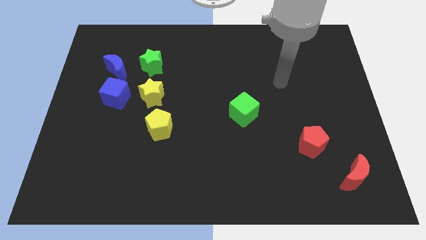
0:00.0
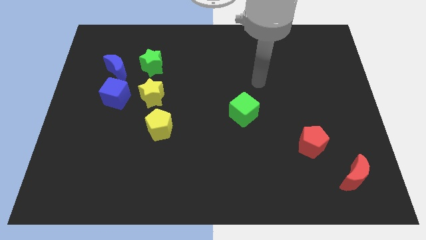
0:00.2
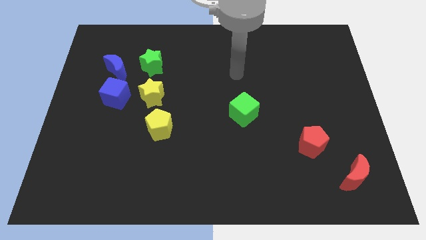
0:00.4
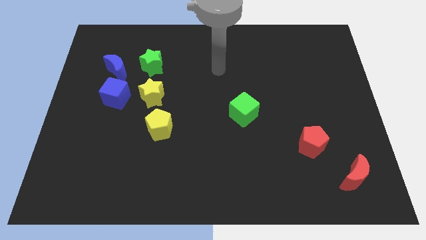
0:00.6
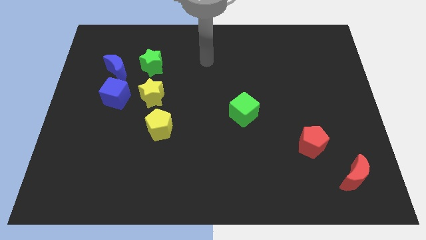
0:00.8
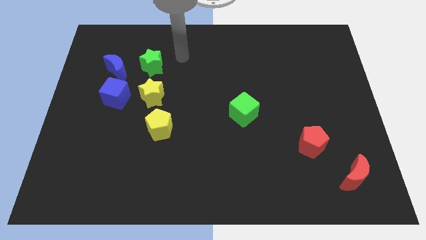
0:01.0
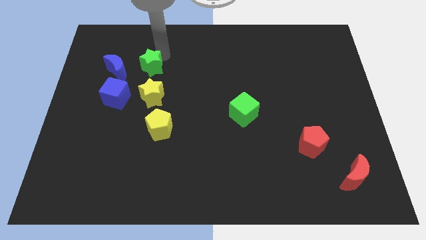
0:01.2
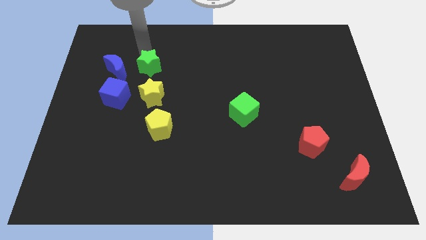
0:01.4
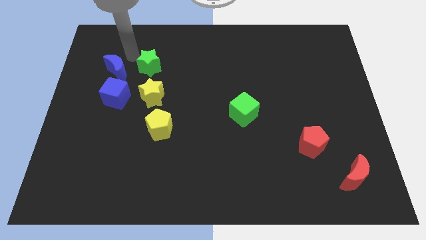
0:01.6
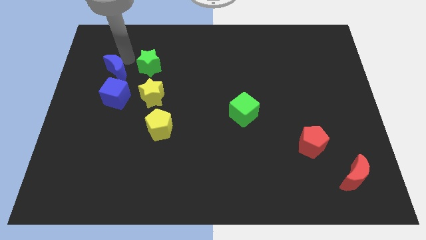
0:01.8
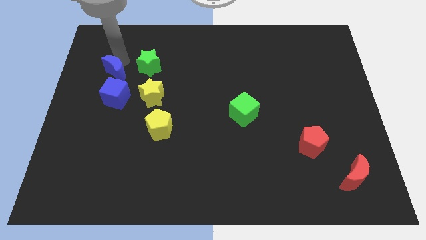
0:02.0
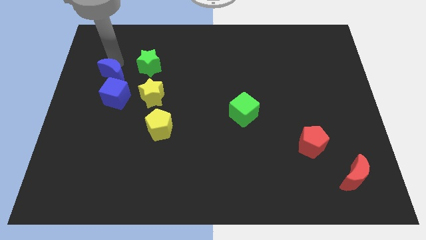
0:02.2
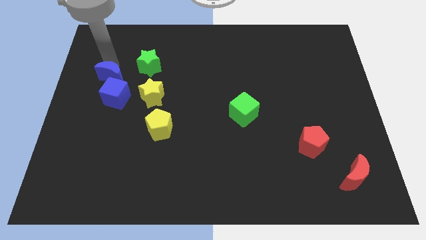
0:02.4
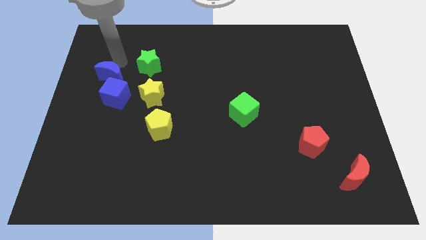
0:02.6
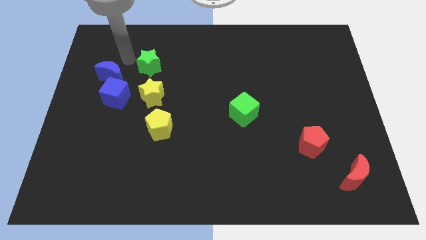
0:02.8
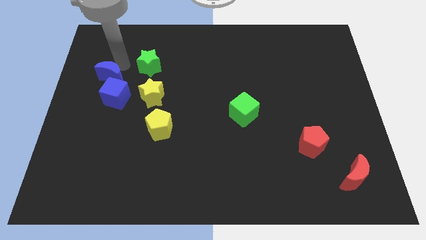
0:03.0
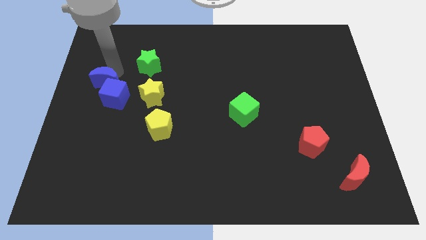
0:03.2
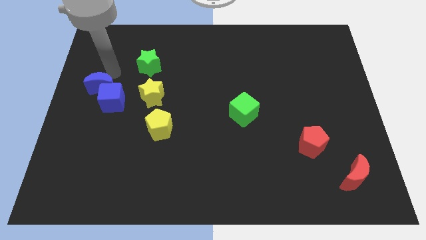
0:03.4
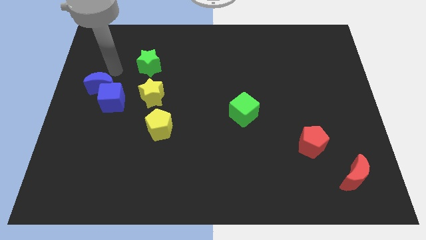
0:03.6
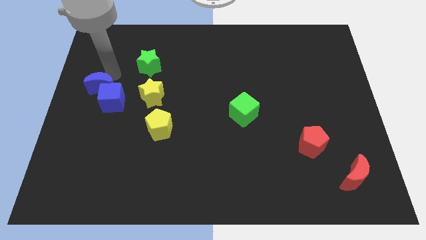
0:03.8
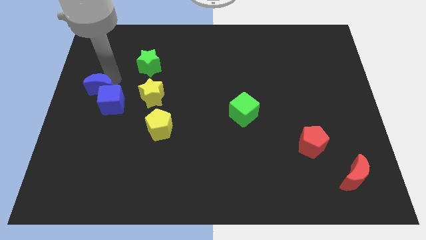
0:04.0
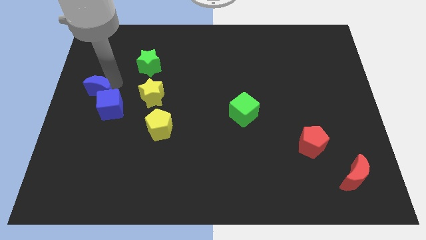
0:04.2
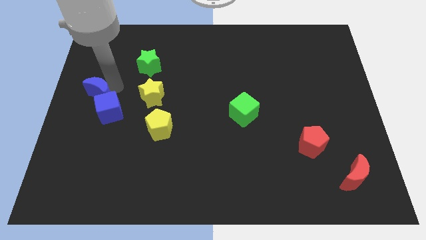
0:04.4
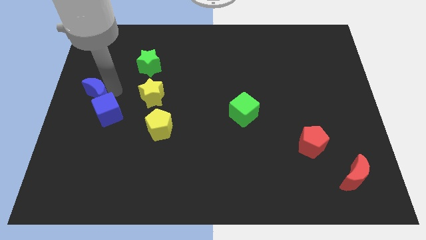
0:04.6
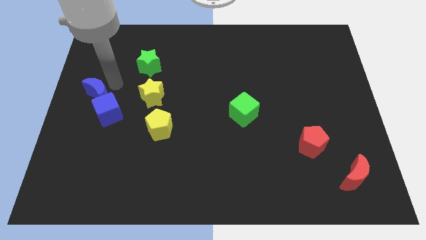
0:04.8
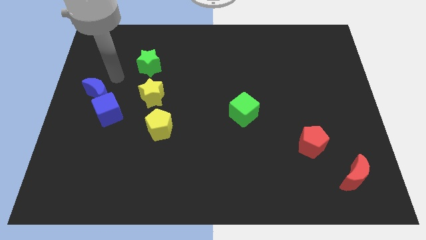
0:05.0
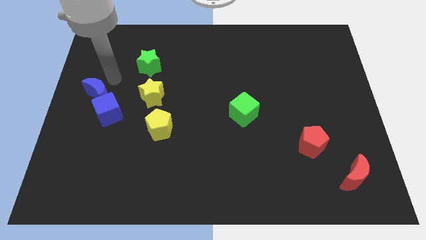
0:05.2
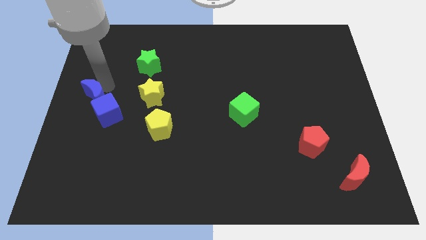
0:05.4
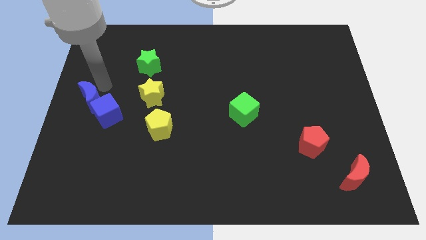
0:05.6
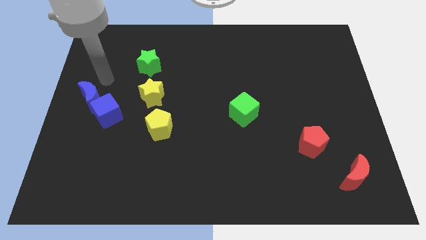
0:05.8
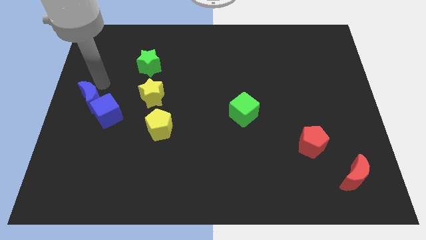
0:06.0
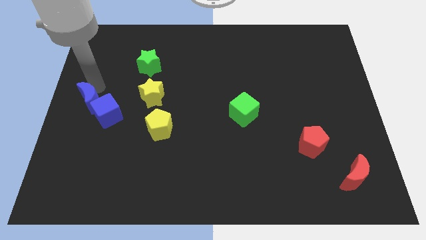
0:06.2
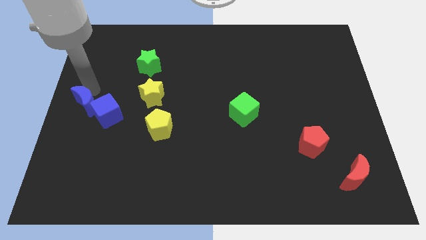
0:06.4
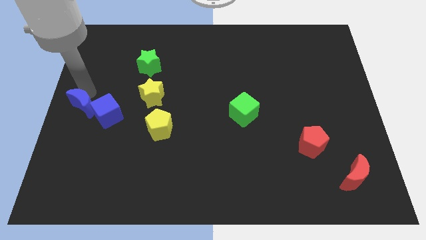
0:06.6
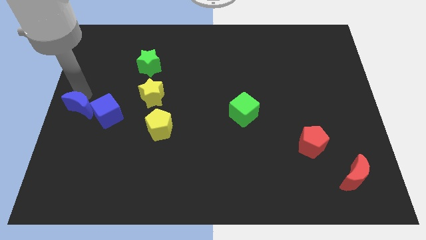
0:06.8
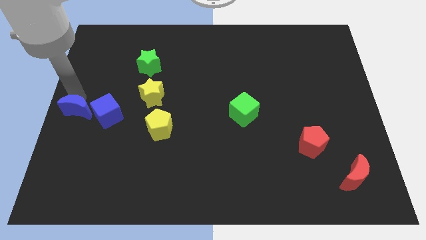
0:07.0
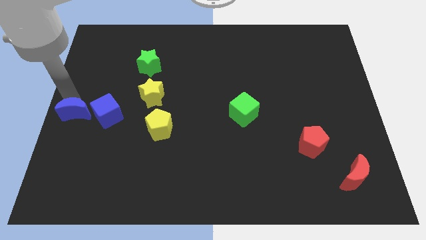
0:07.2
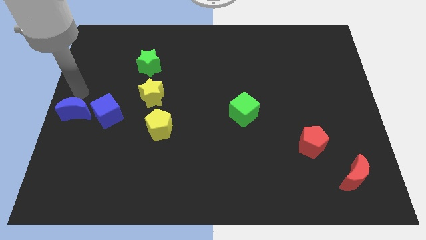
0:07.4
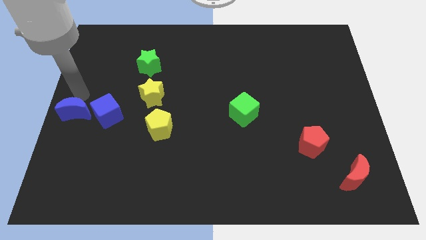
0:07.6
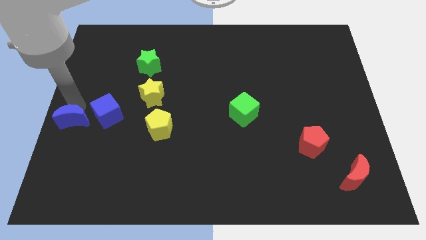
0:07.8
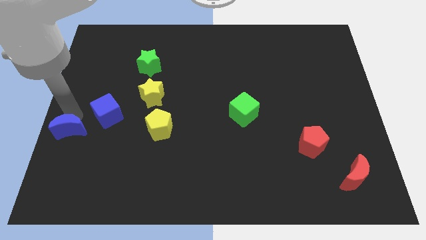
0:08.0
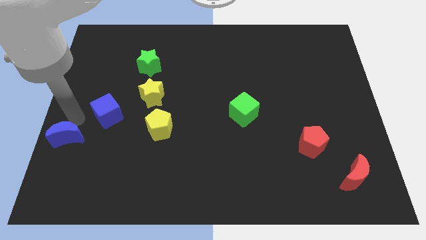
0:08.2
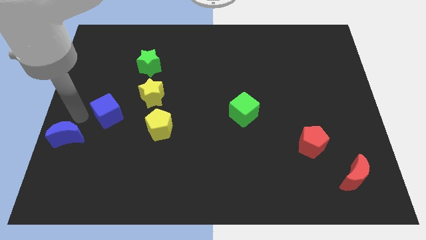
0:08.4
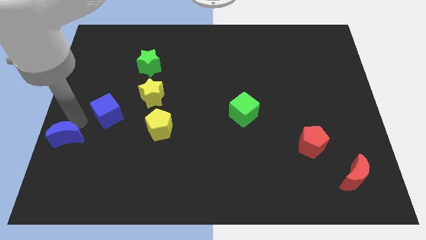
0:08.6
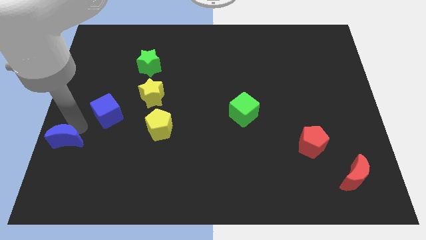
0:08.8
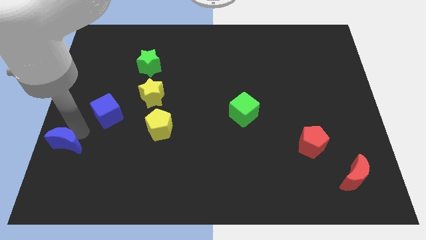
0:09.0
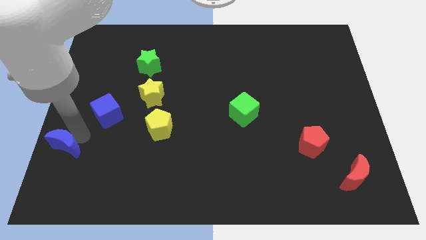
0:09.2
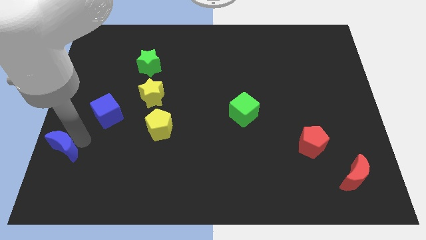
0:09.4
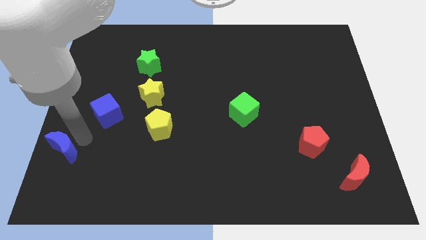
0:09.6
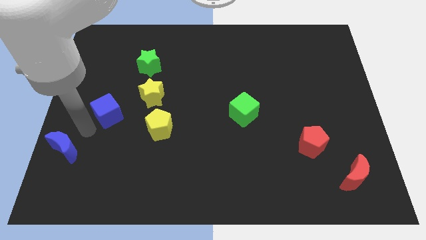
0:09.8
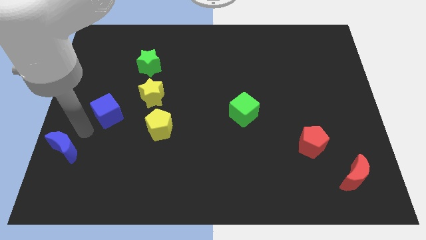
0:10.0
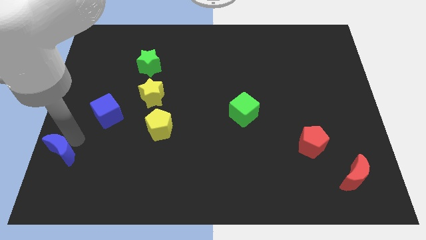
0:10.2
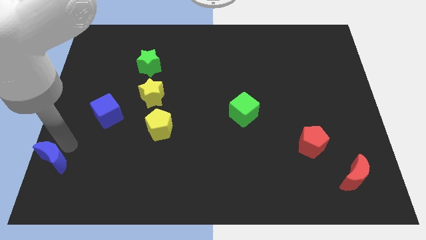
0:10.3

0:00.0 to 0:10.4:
put the blue moon to the bottom left of the board

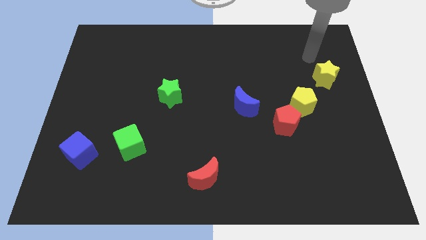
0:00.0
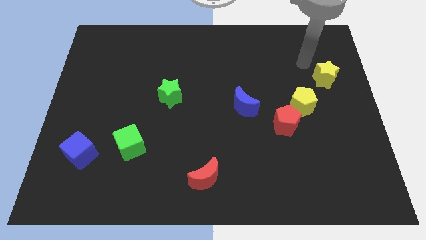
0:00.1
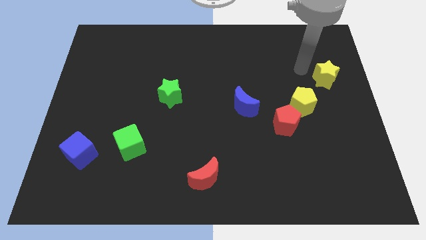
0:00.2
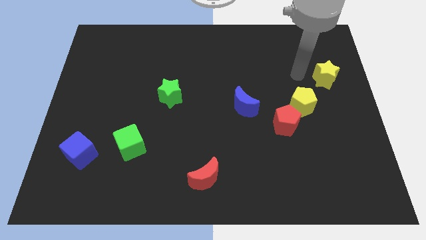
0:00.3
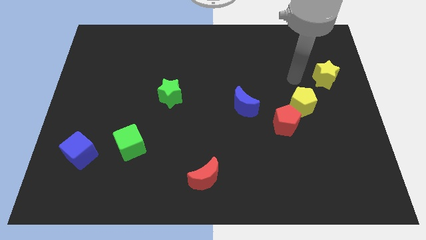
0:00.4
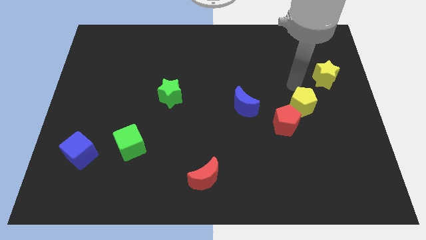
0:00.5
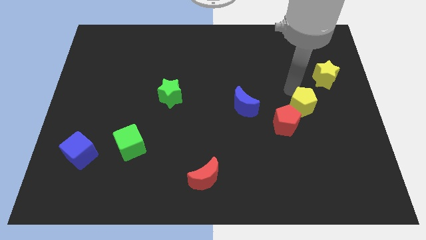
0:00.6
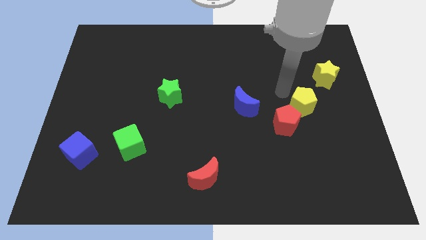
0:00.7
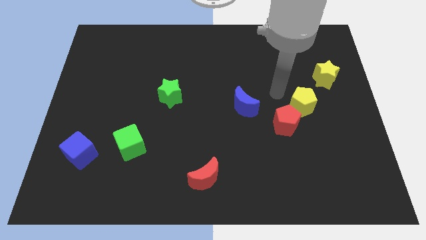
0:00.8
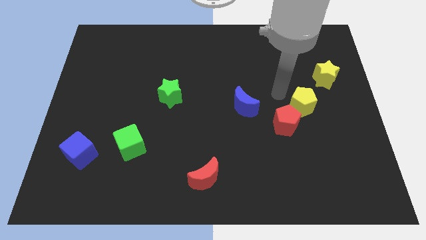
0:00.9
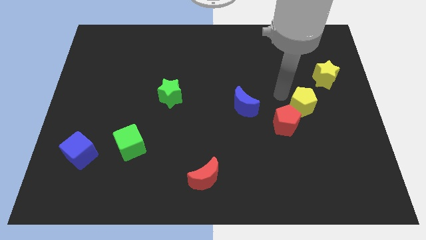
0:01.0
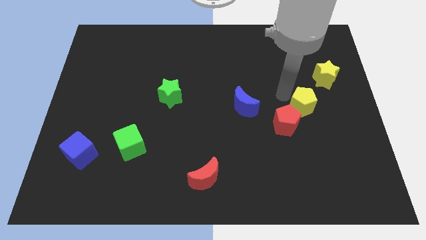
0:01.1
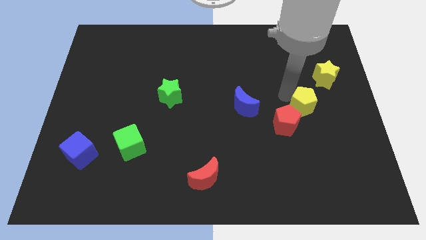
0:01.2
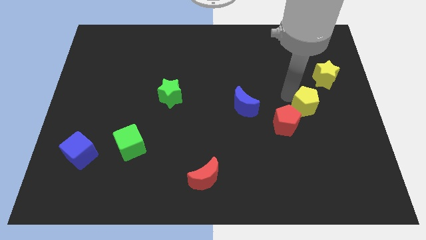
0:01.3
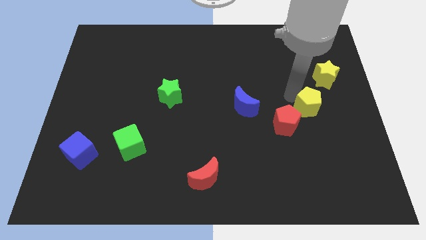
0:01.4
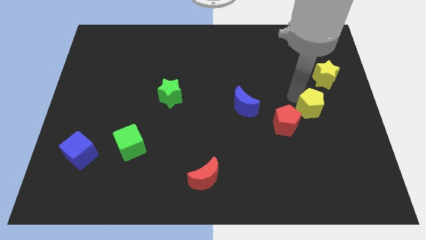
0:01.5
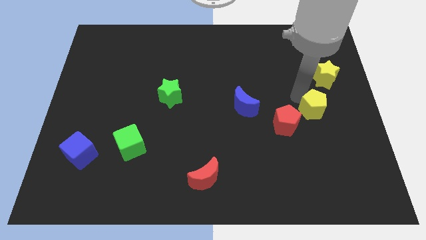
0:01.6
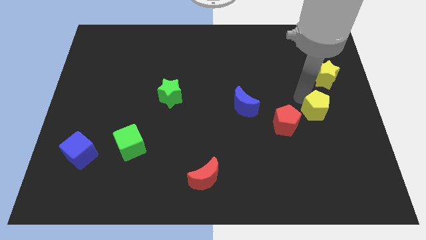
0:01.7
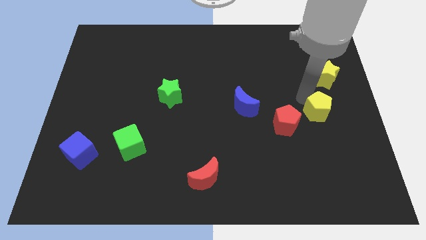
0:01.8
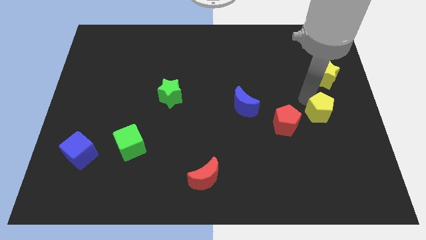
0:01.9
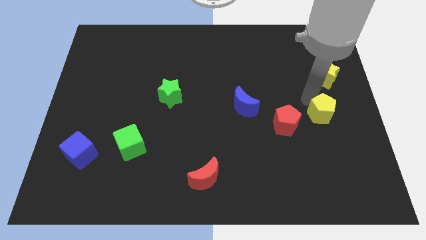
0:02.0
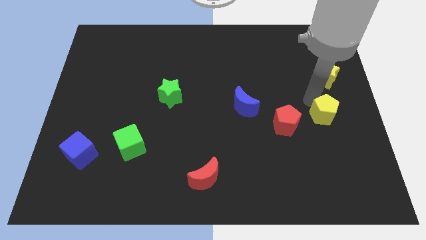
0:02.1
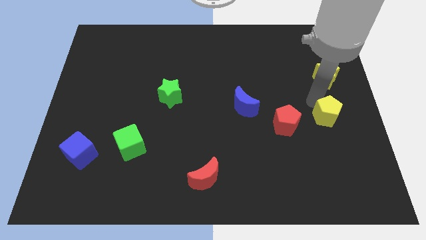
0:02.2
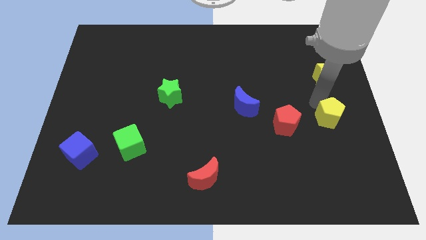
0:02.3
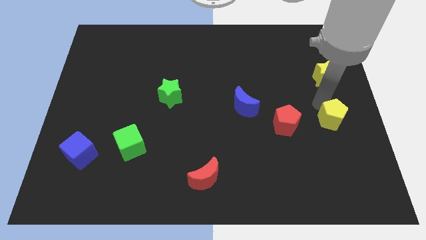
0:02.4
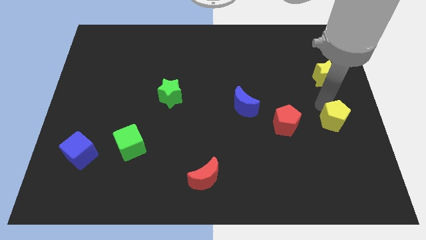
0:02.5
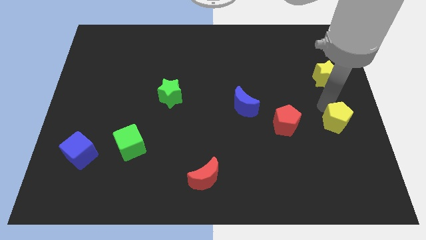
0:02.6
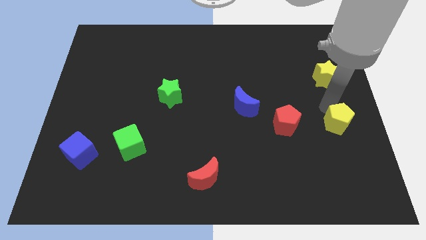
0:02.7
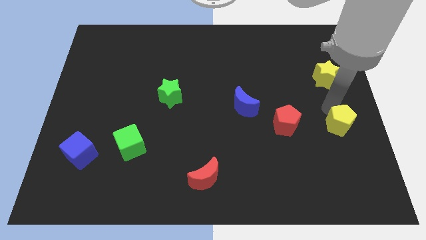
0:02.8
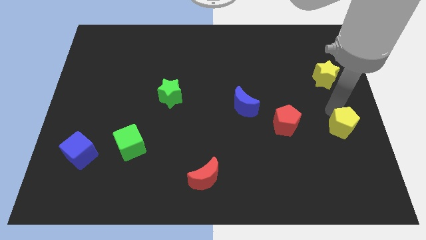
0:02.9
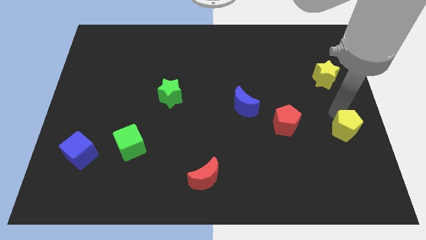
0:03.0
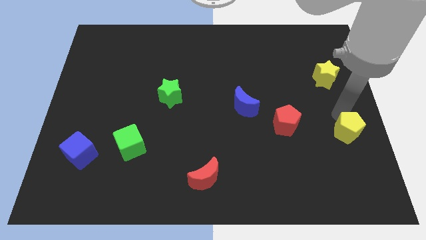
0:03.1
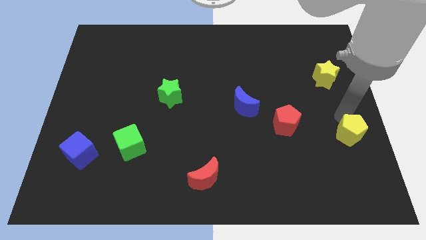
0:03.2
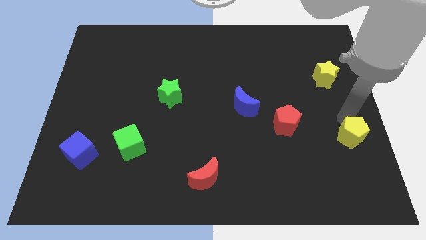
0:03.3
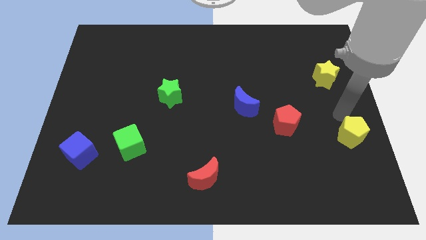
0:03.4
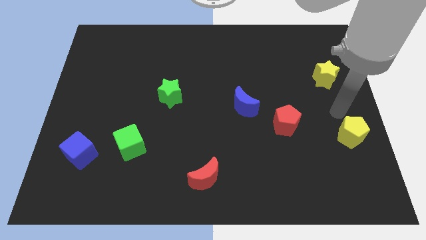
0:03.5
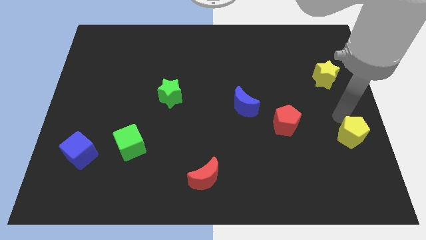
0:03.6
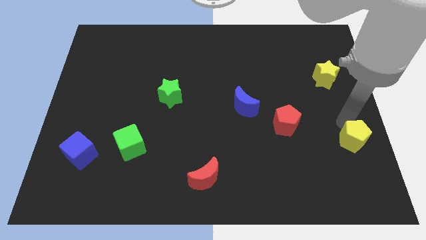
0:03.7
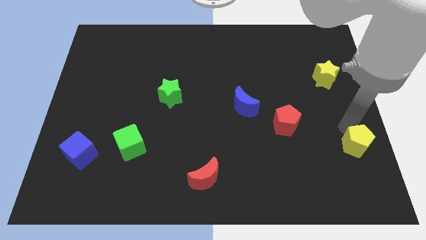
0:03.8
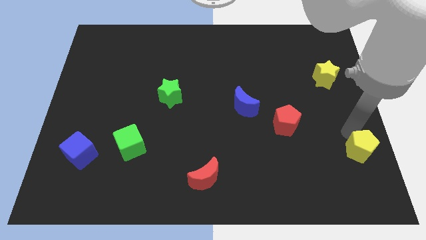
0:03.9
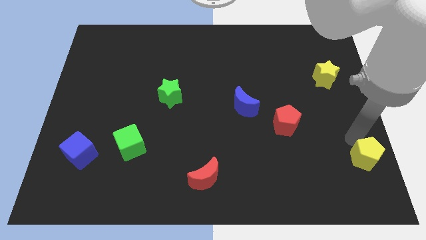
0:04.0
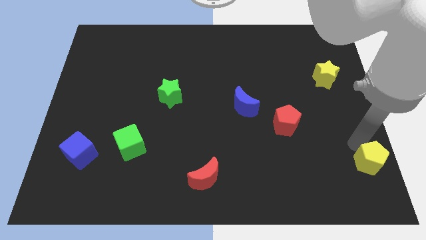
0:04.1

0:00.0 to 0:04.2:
put the yellow pentagon to the bottom right corner
